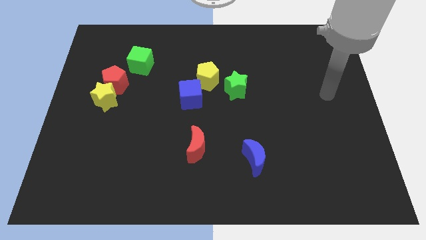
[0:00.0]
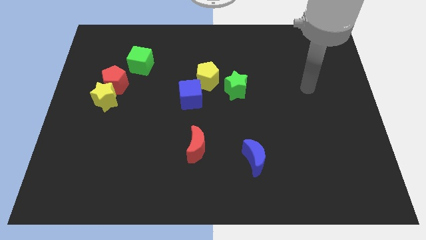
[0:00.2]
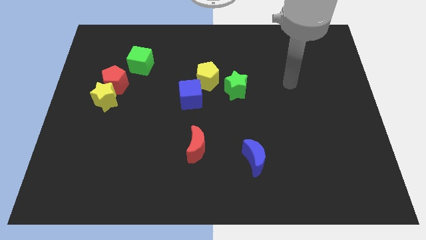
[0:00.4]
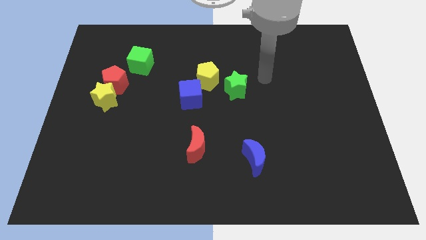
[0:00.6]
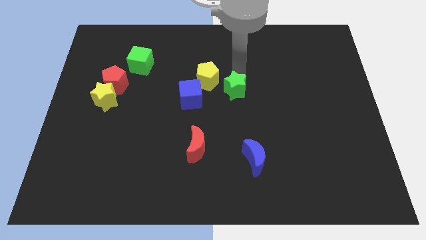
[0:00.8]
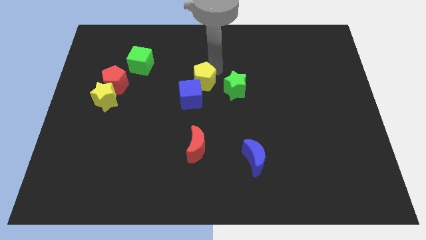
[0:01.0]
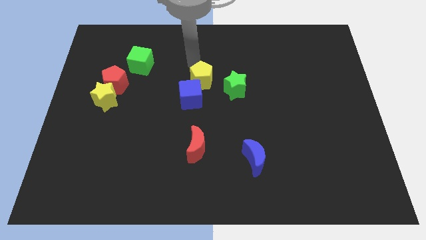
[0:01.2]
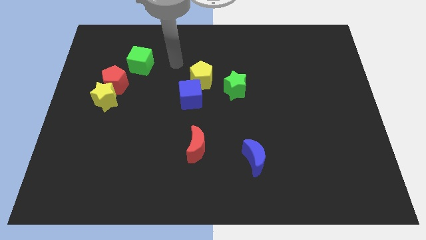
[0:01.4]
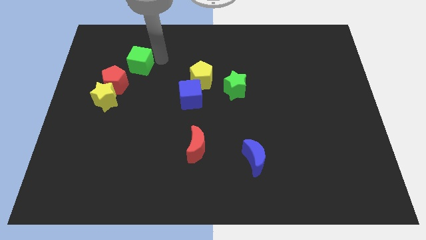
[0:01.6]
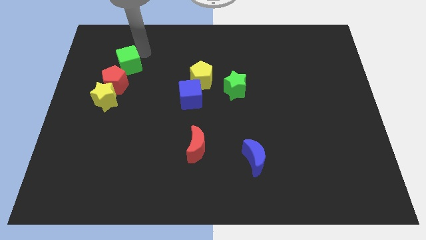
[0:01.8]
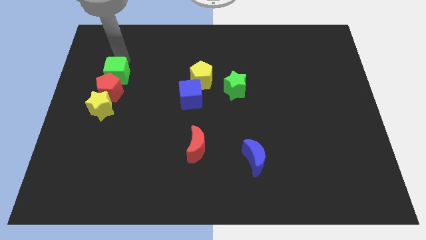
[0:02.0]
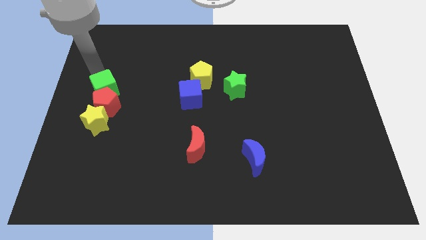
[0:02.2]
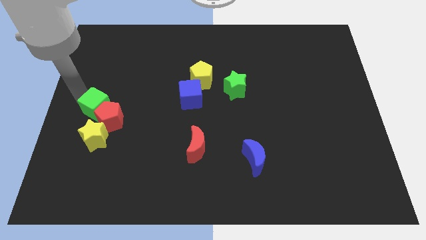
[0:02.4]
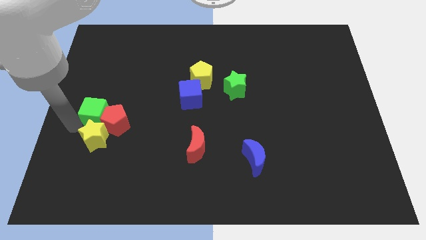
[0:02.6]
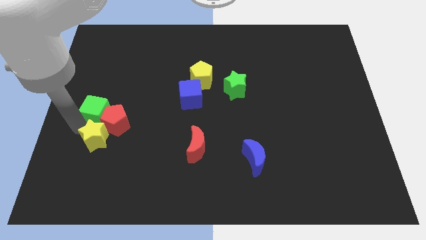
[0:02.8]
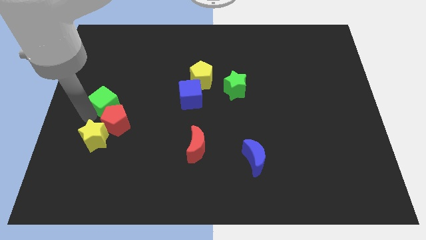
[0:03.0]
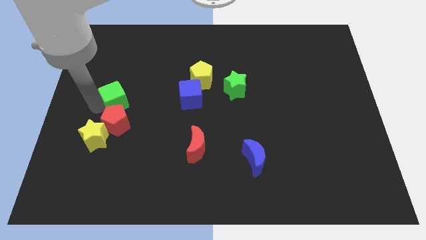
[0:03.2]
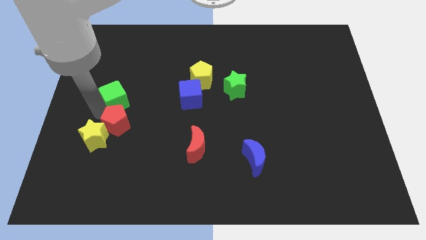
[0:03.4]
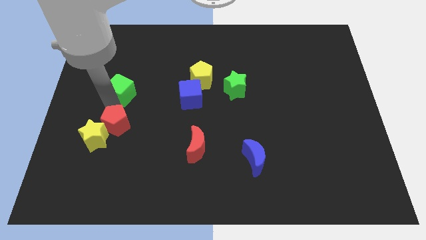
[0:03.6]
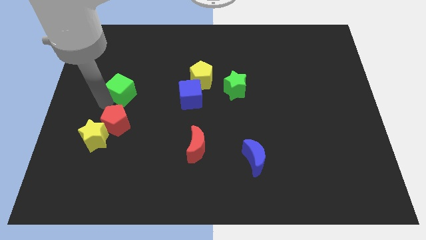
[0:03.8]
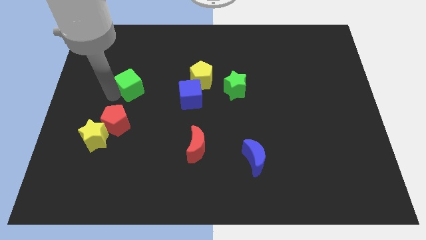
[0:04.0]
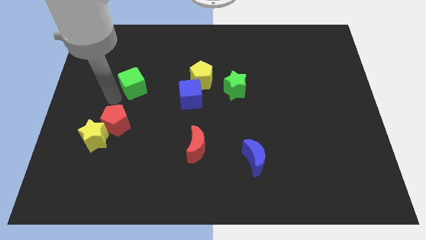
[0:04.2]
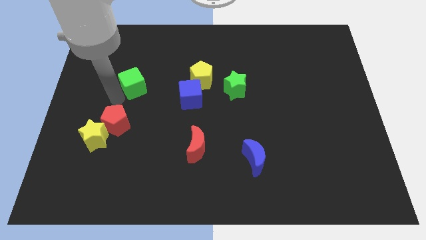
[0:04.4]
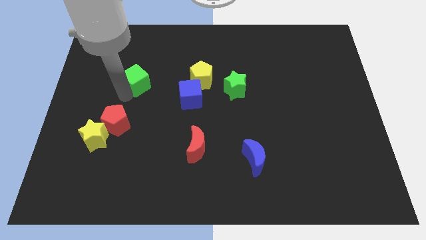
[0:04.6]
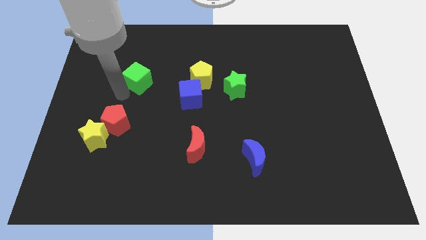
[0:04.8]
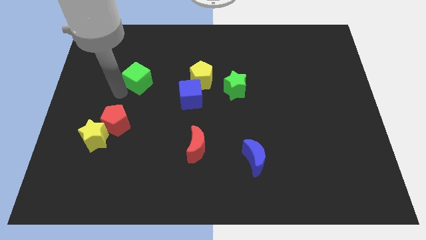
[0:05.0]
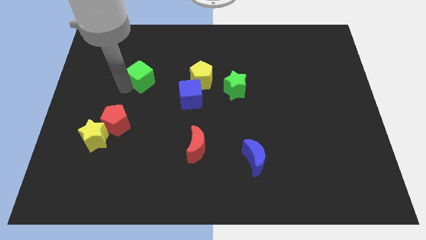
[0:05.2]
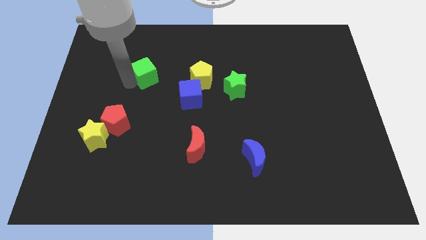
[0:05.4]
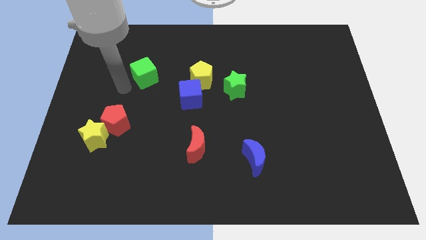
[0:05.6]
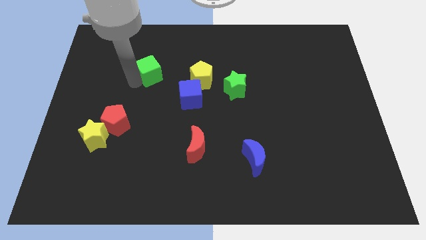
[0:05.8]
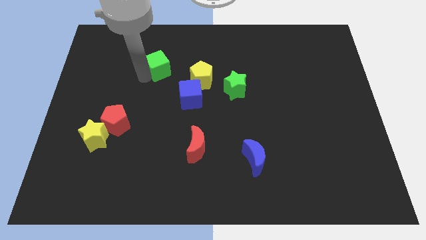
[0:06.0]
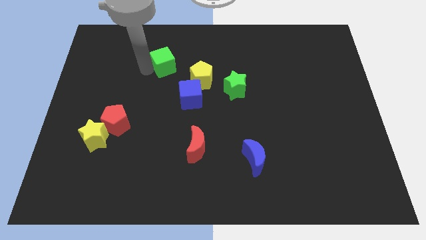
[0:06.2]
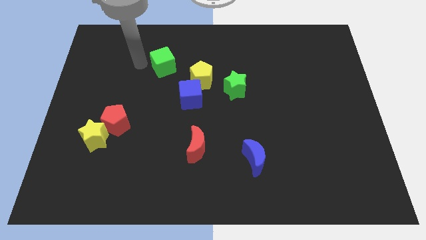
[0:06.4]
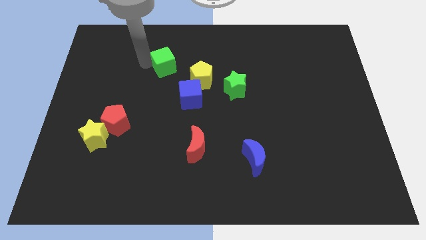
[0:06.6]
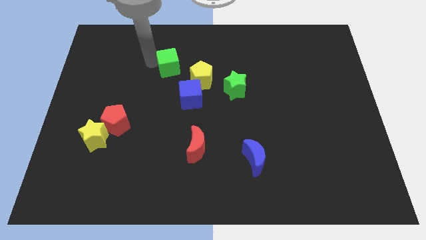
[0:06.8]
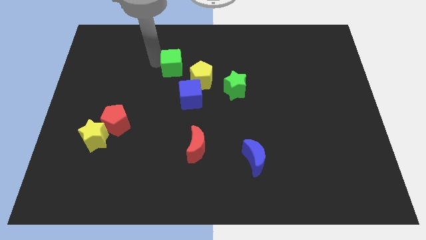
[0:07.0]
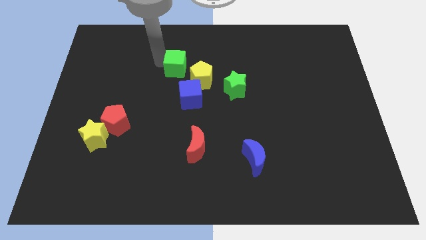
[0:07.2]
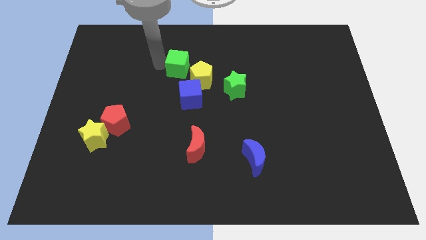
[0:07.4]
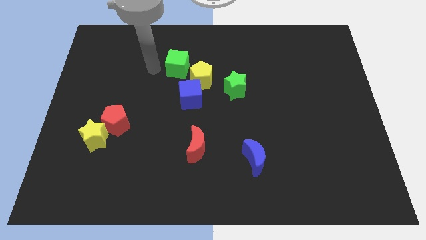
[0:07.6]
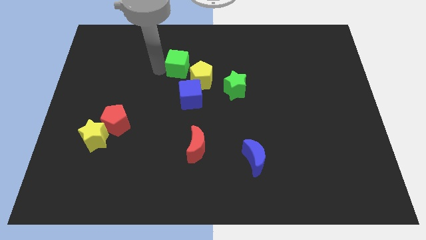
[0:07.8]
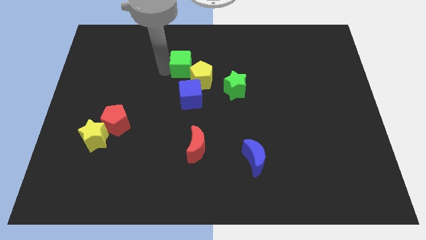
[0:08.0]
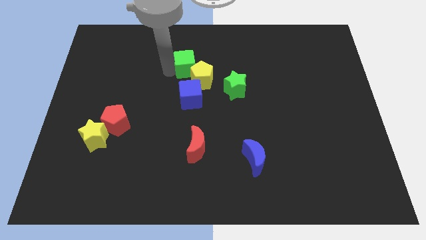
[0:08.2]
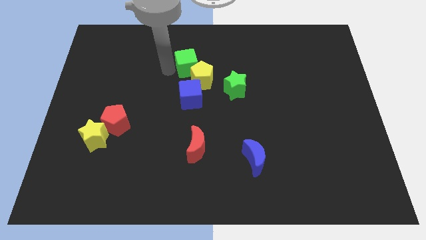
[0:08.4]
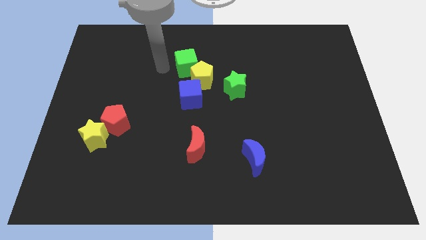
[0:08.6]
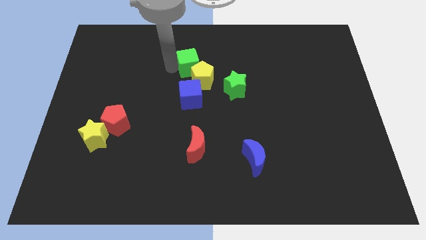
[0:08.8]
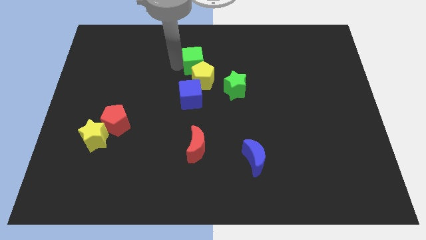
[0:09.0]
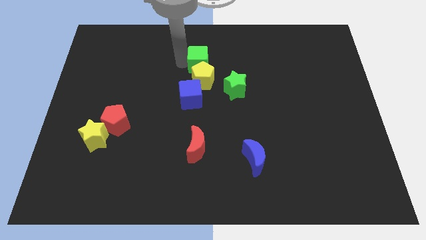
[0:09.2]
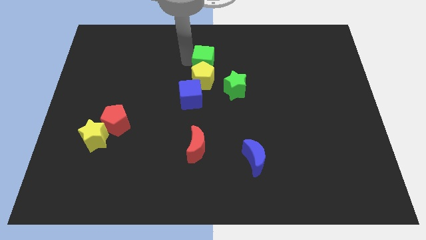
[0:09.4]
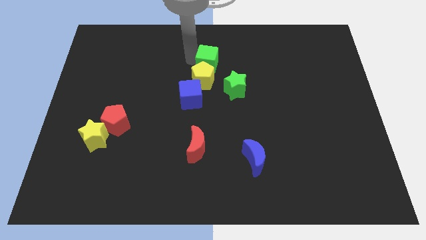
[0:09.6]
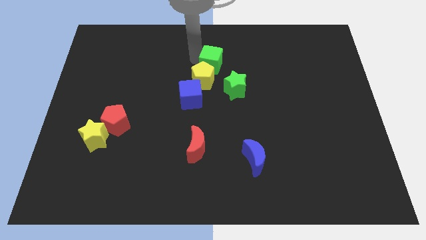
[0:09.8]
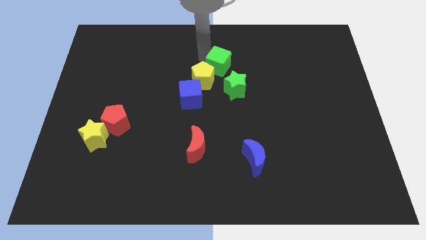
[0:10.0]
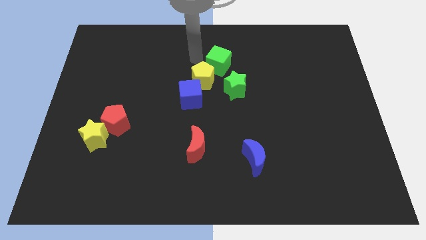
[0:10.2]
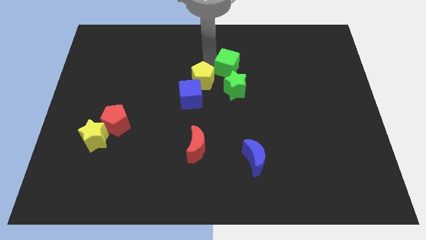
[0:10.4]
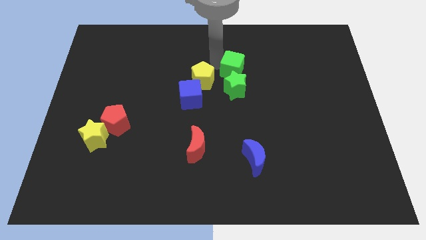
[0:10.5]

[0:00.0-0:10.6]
slide the green cube to the top right of the green star

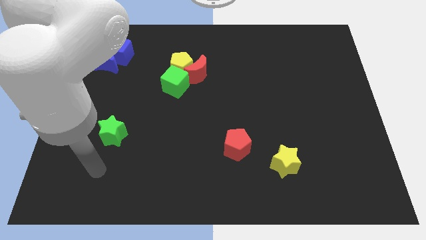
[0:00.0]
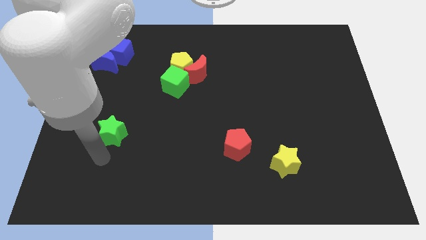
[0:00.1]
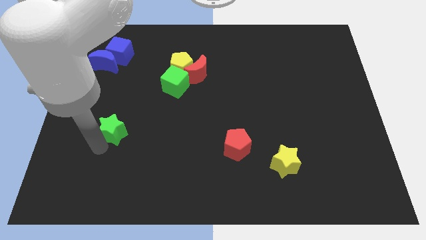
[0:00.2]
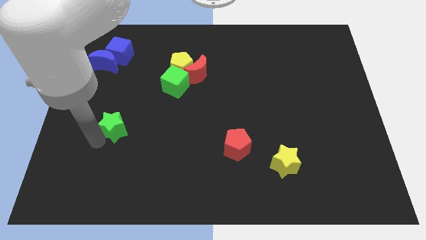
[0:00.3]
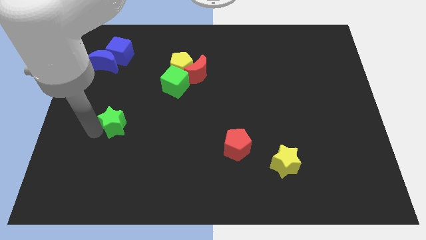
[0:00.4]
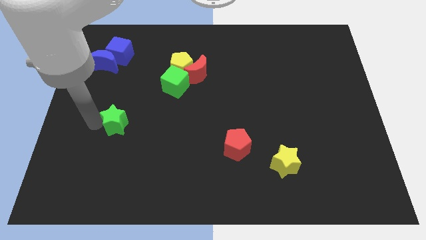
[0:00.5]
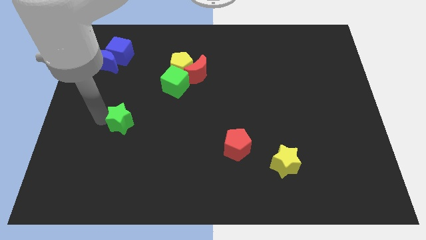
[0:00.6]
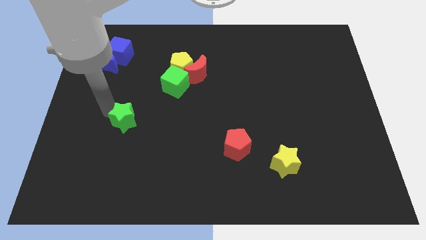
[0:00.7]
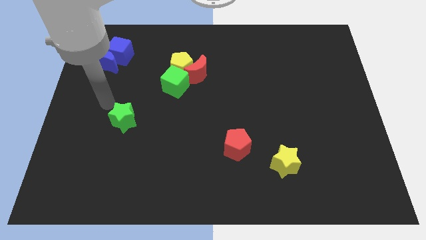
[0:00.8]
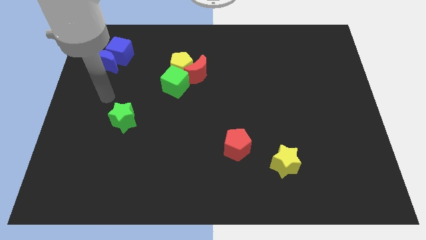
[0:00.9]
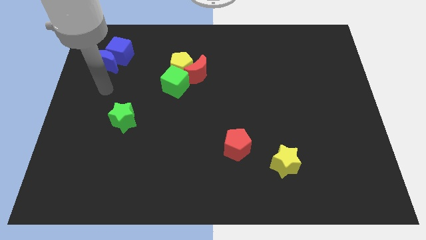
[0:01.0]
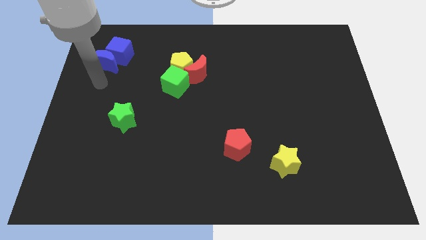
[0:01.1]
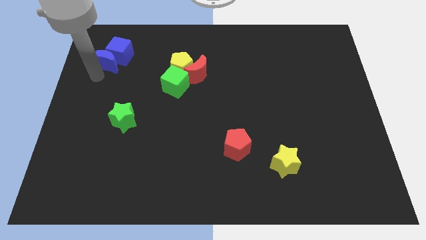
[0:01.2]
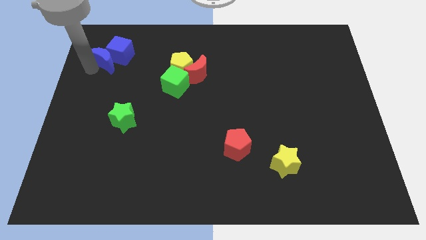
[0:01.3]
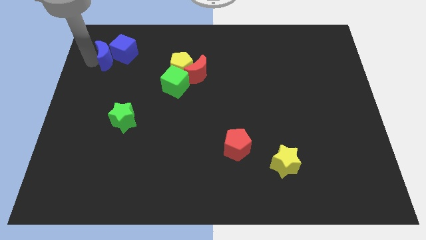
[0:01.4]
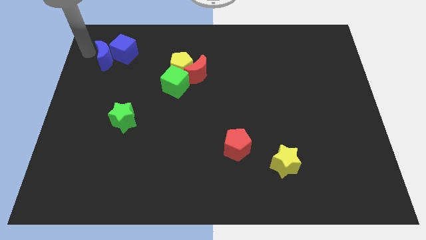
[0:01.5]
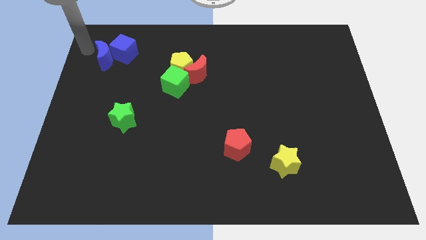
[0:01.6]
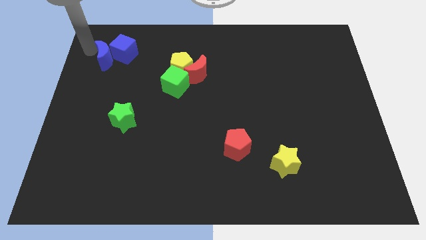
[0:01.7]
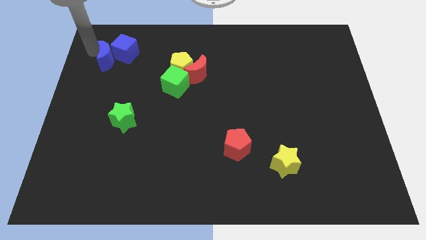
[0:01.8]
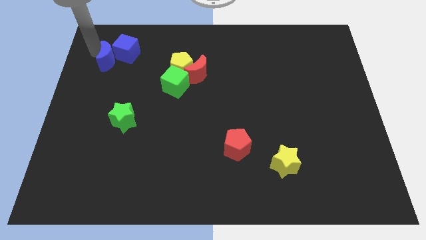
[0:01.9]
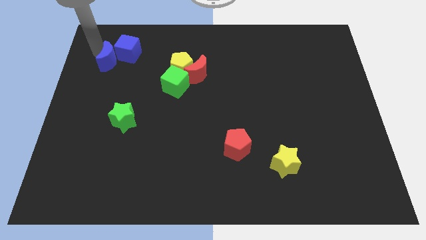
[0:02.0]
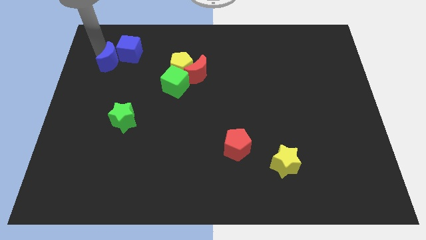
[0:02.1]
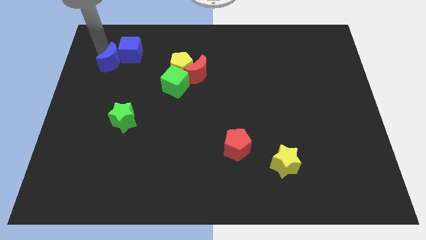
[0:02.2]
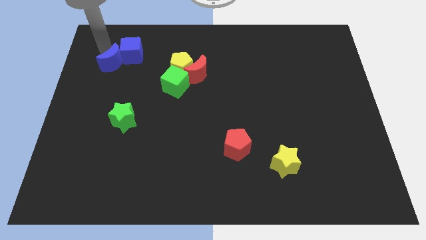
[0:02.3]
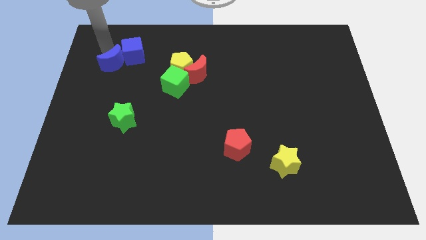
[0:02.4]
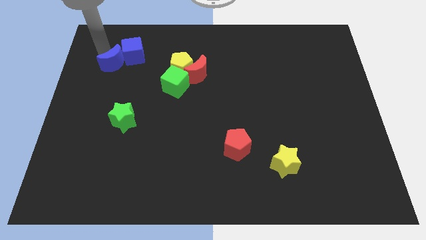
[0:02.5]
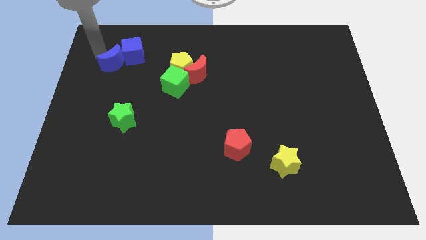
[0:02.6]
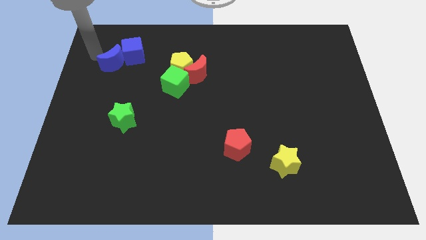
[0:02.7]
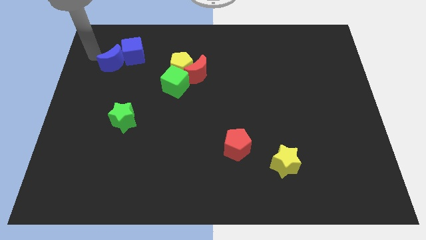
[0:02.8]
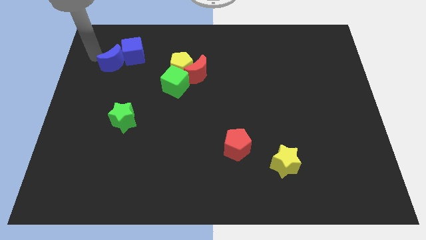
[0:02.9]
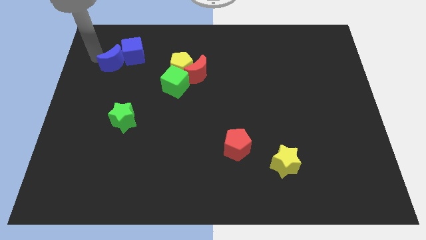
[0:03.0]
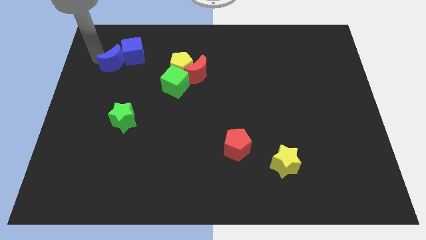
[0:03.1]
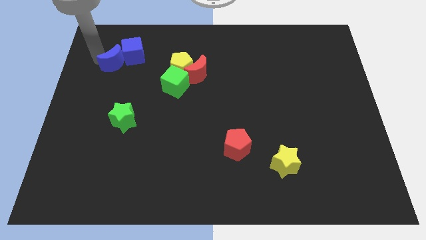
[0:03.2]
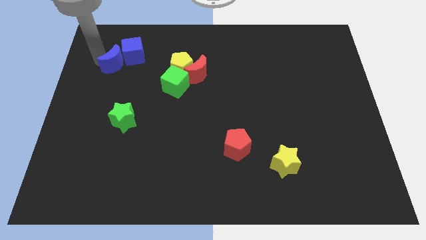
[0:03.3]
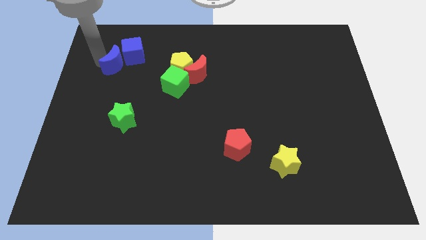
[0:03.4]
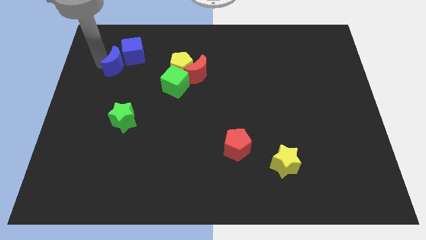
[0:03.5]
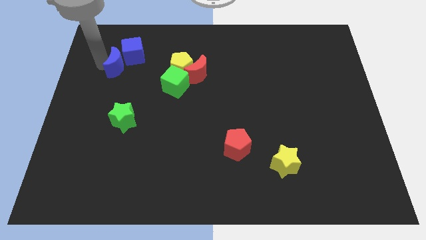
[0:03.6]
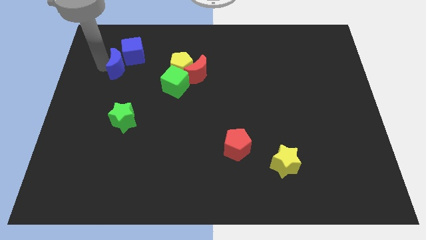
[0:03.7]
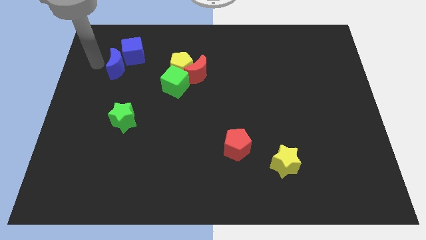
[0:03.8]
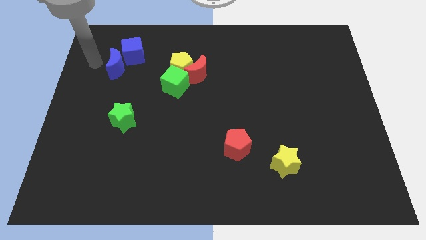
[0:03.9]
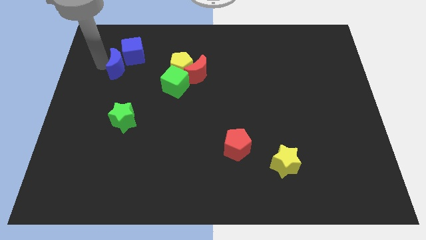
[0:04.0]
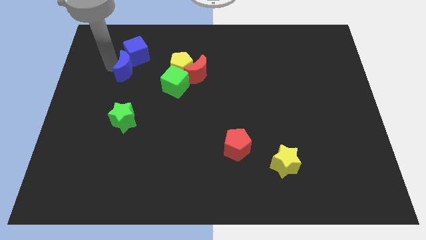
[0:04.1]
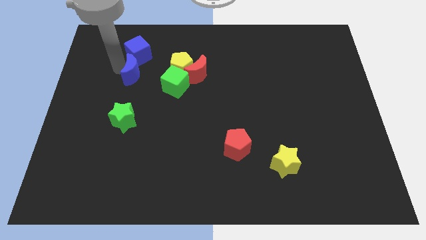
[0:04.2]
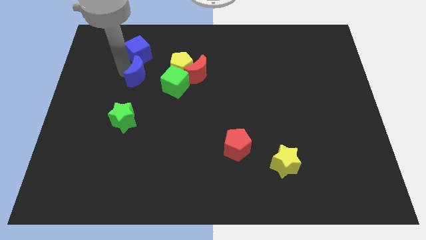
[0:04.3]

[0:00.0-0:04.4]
push the blue moon just left of the red moon
